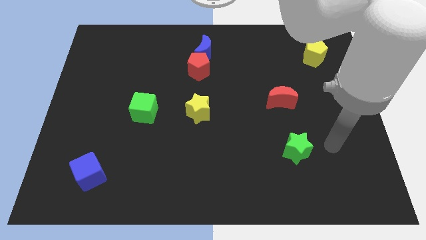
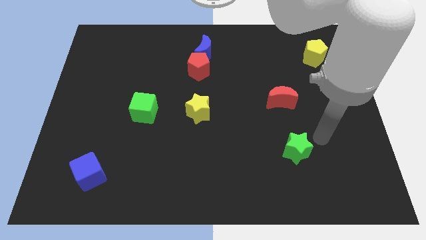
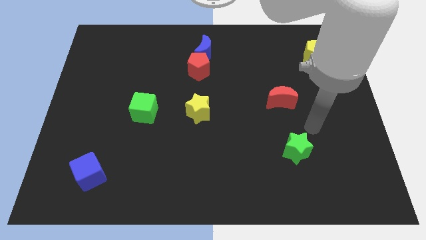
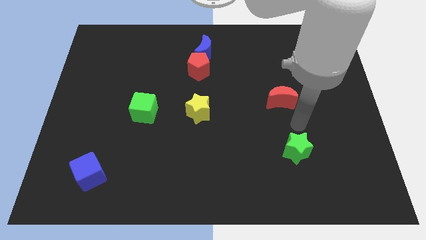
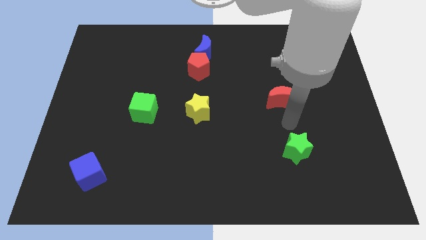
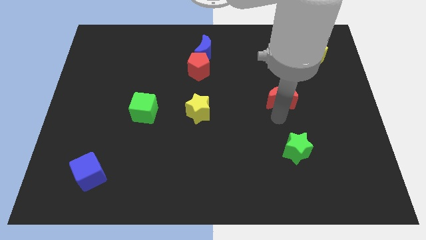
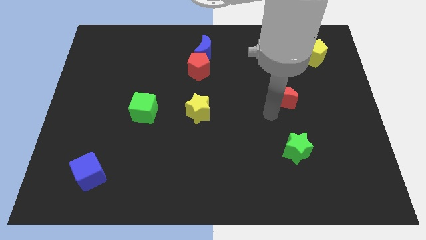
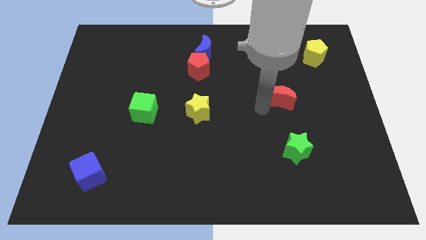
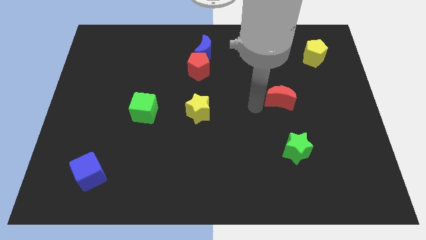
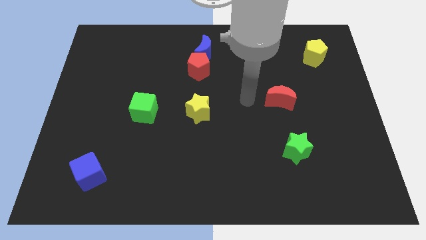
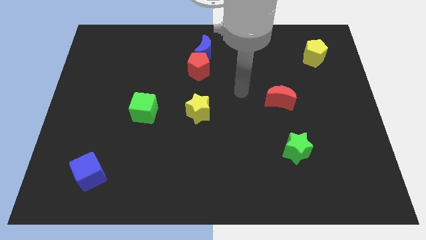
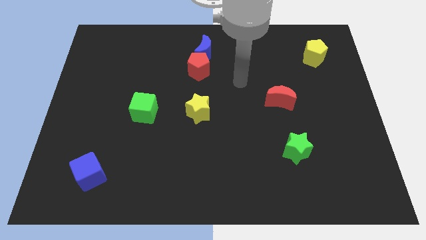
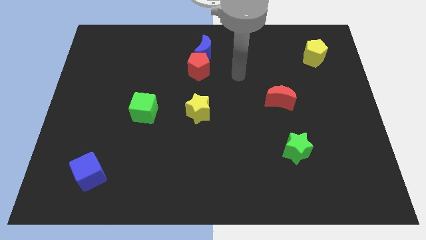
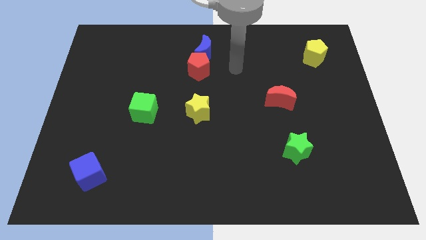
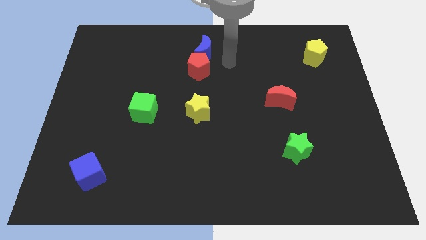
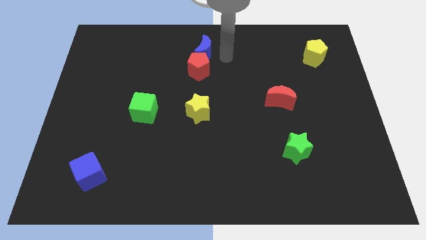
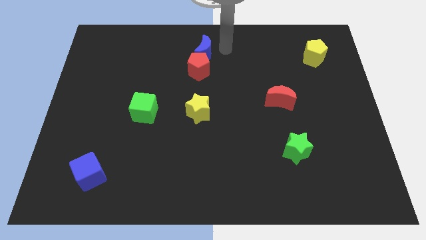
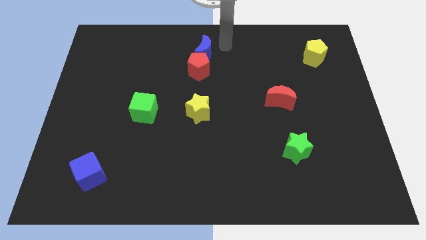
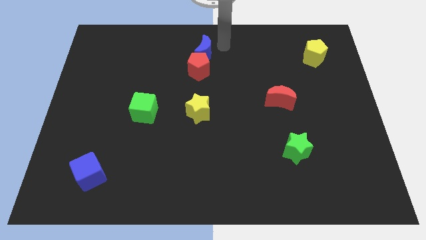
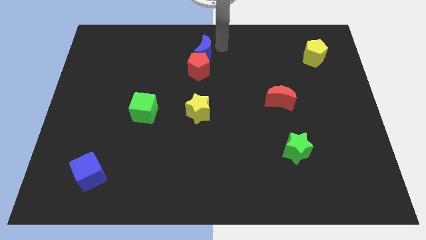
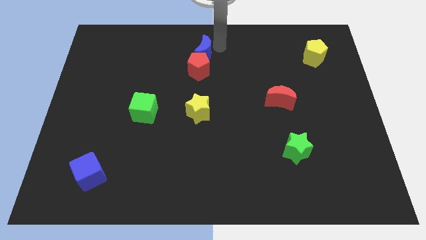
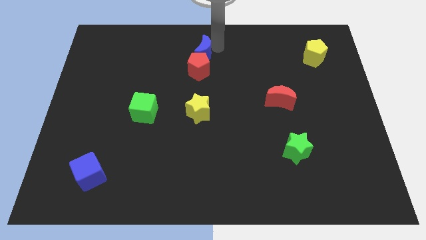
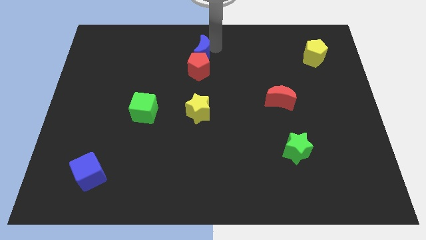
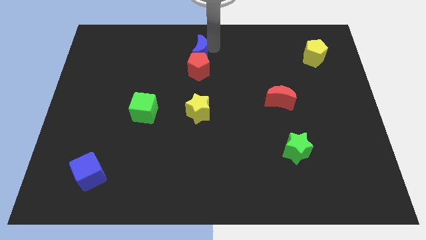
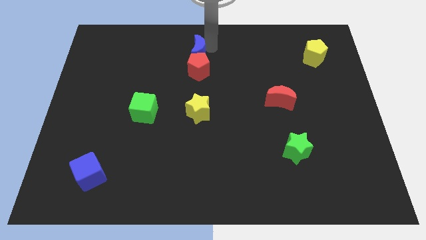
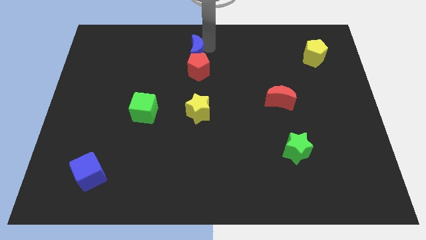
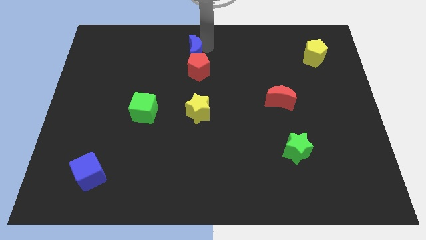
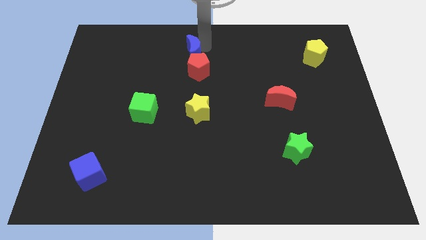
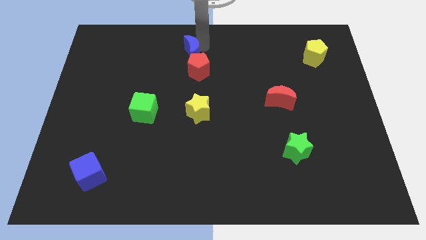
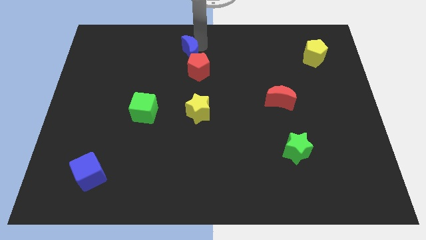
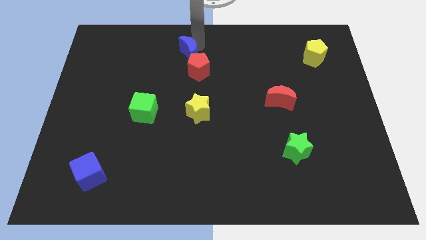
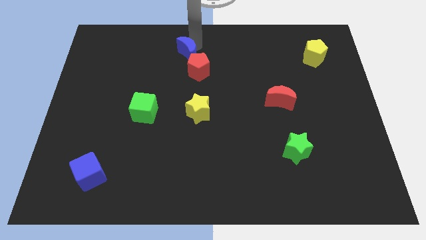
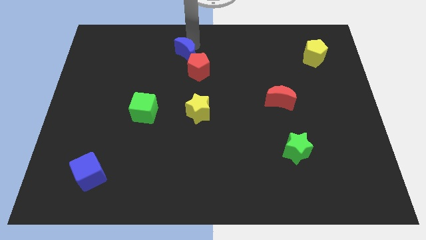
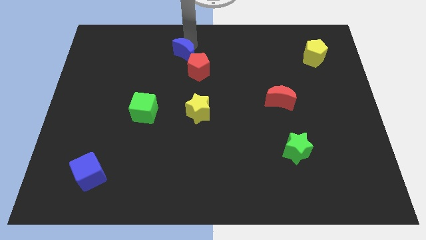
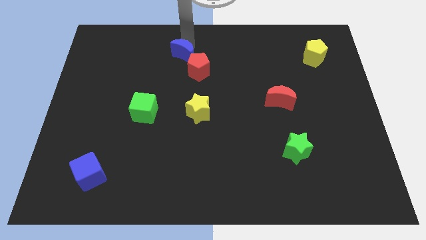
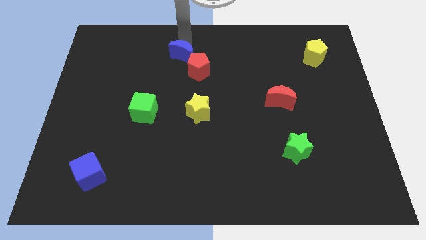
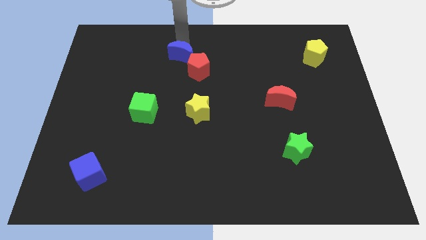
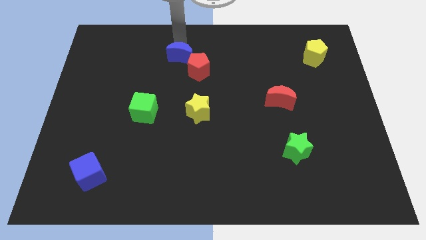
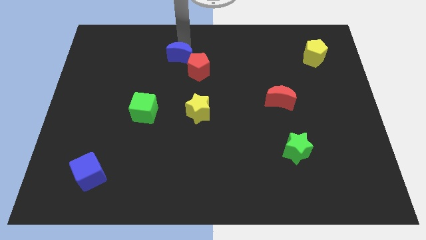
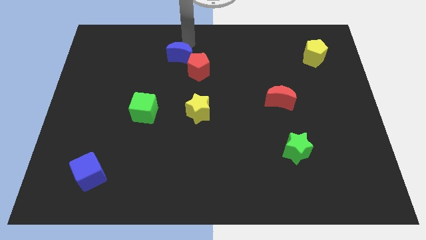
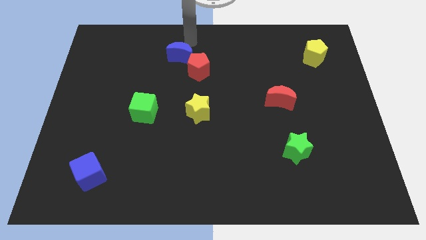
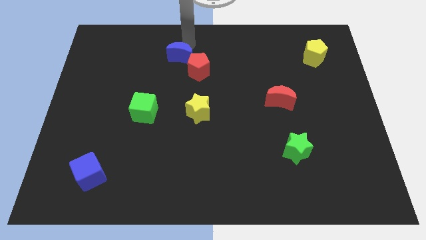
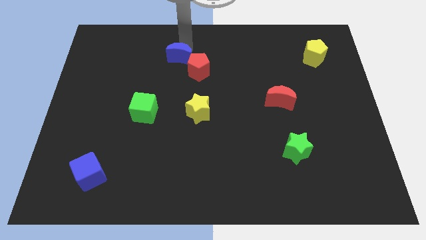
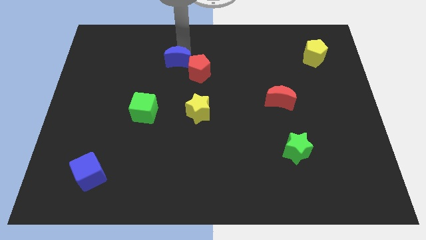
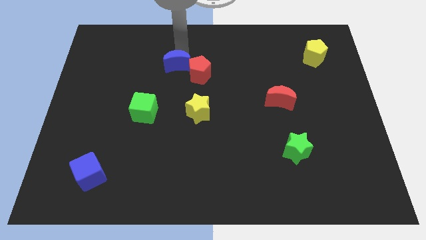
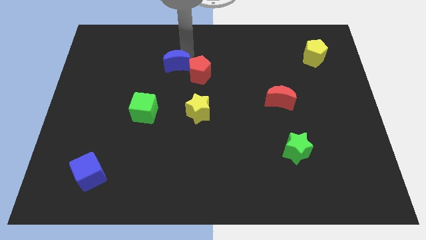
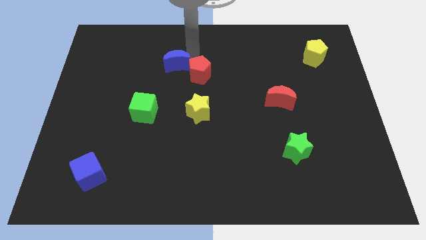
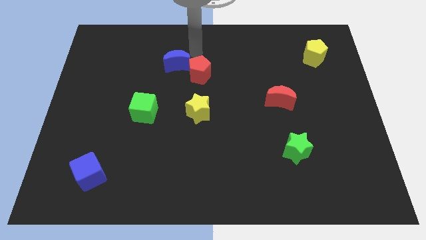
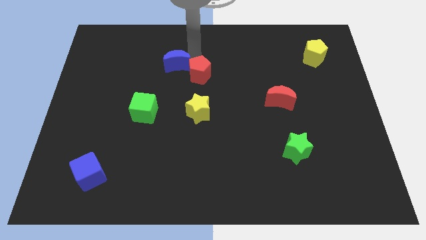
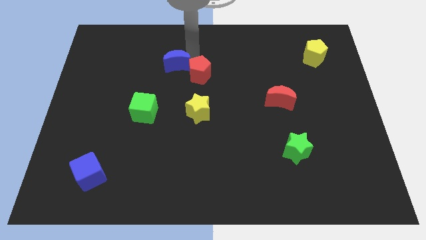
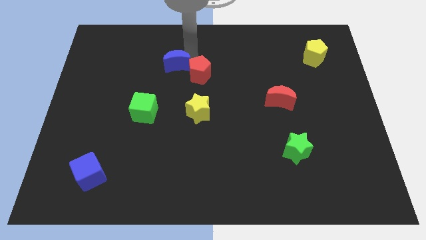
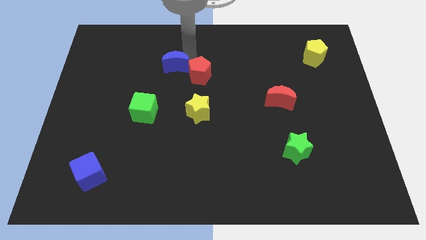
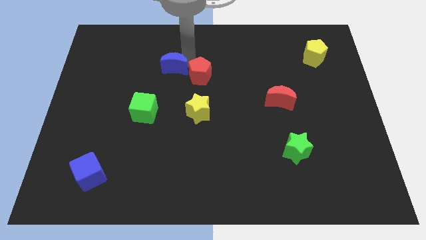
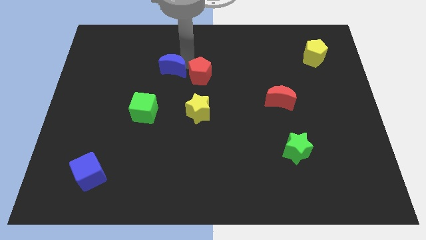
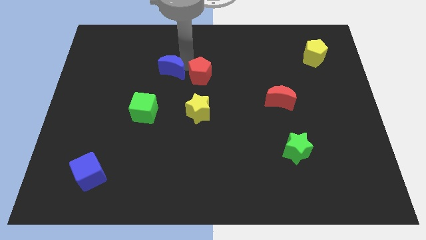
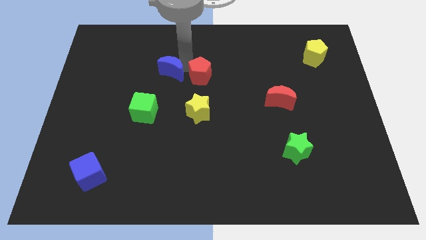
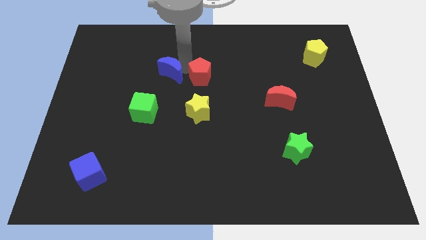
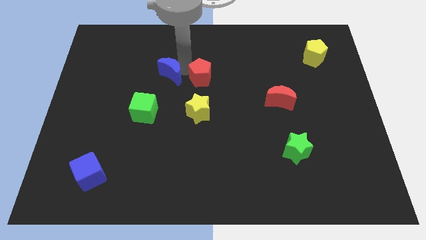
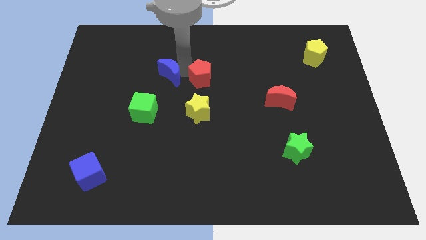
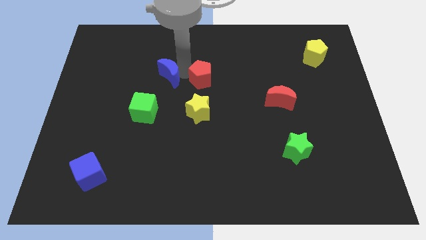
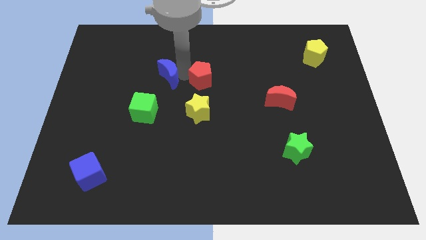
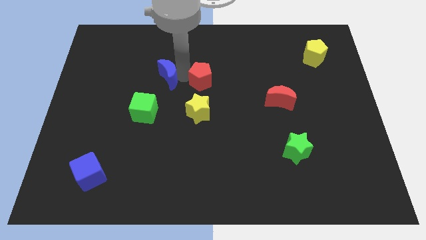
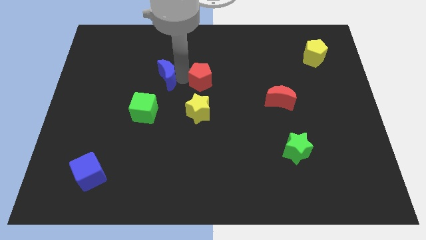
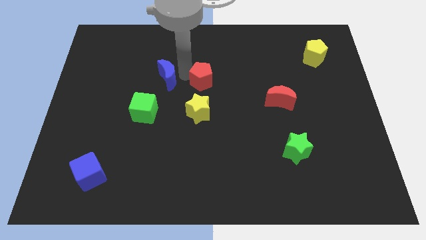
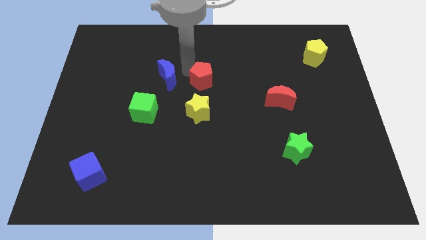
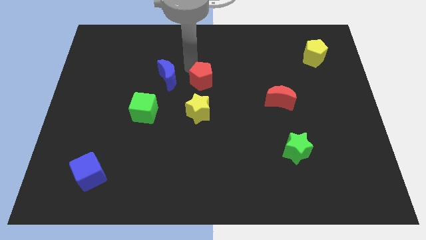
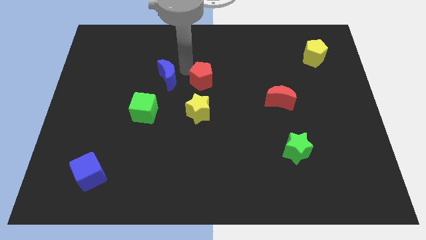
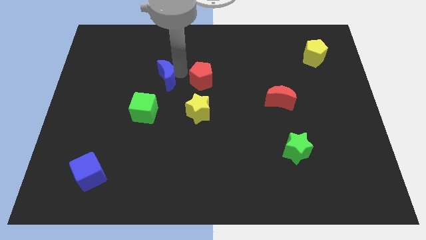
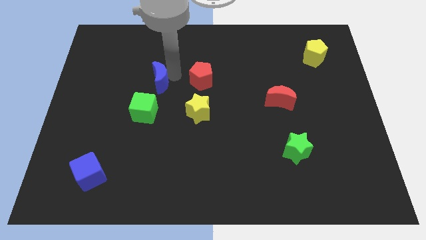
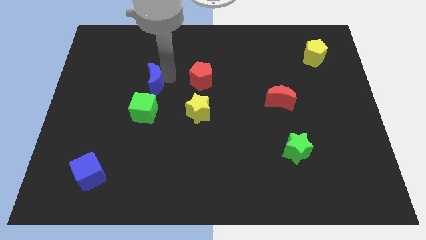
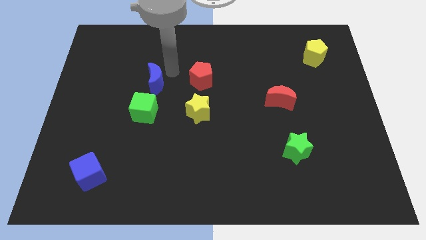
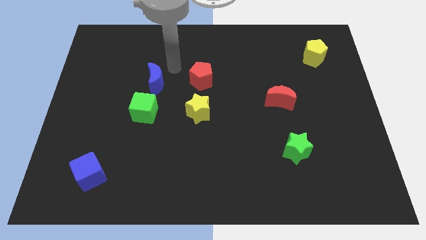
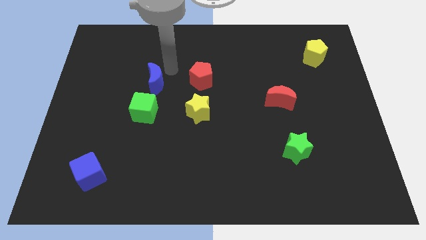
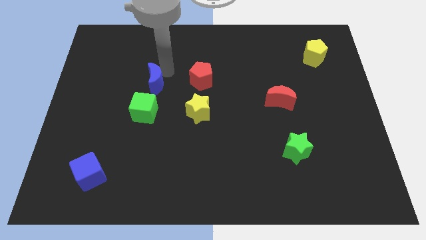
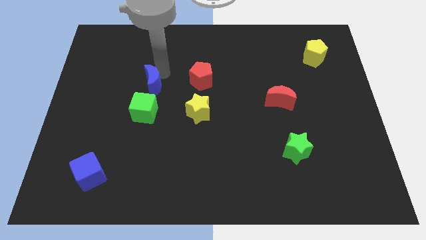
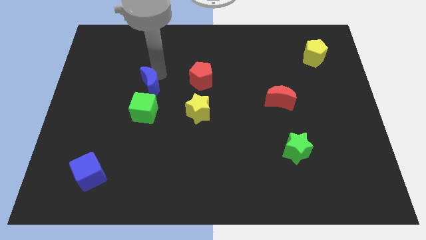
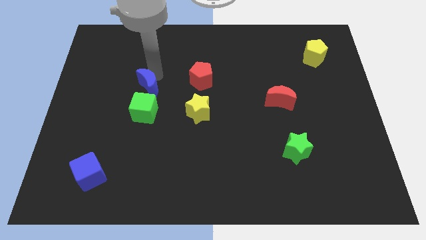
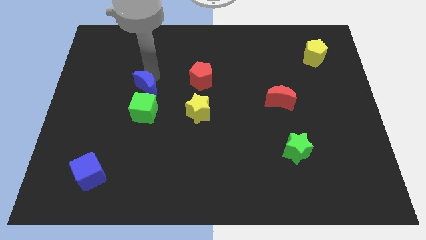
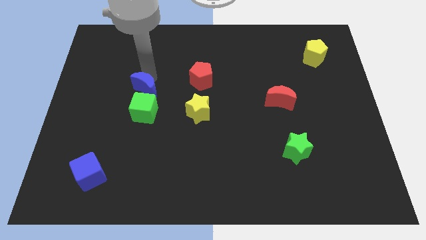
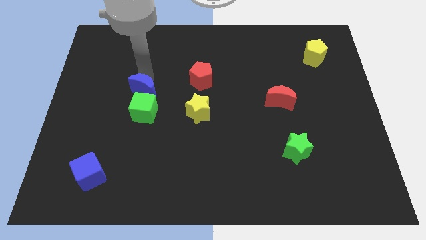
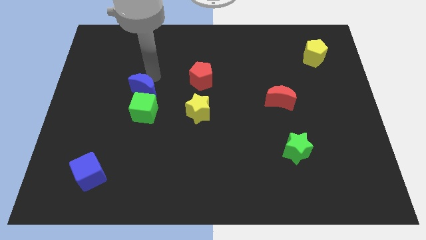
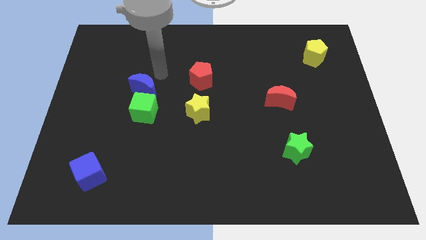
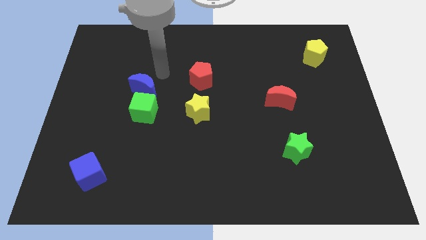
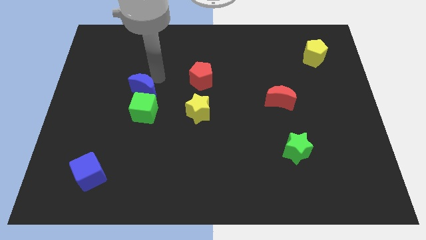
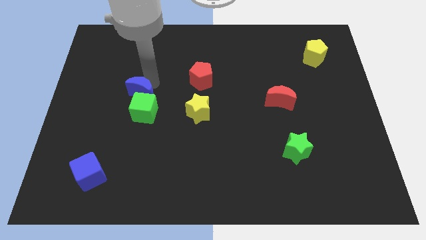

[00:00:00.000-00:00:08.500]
move the blue moon downwards and left diagonally
